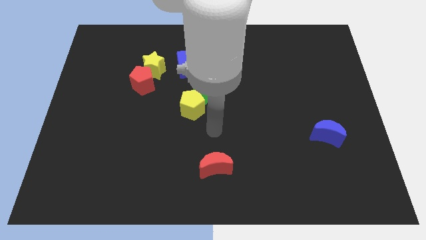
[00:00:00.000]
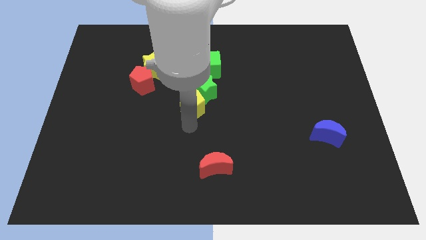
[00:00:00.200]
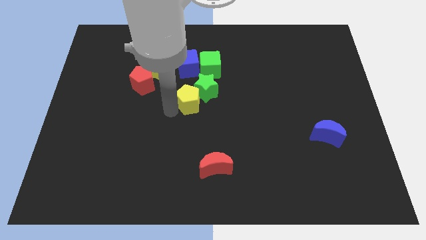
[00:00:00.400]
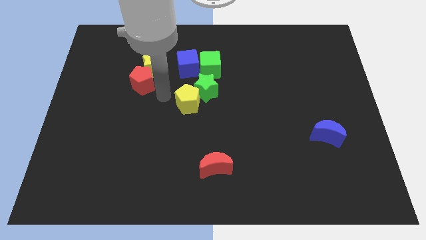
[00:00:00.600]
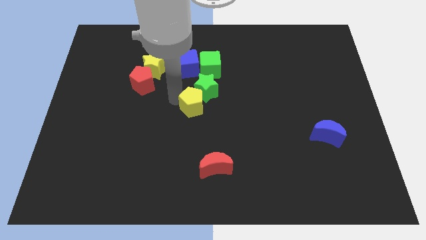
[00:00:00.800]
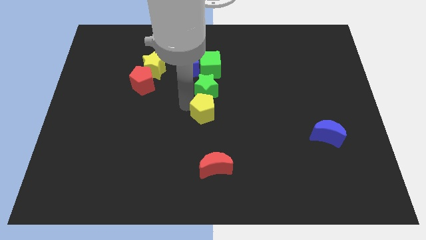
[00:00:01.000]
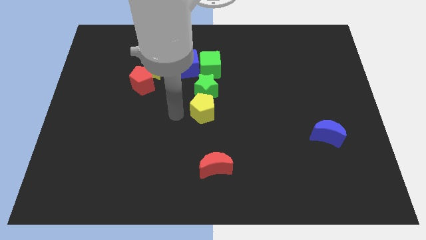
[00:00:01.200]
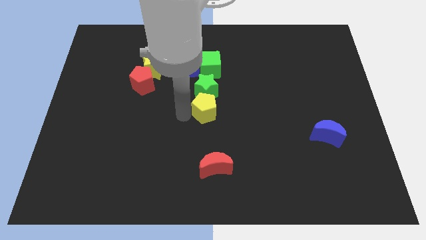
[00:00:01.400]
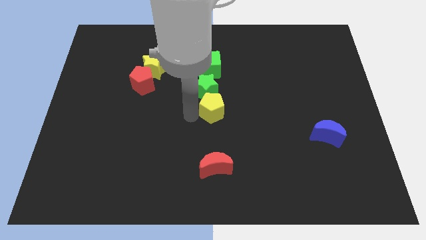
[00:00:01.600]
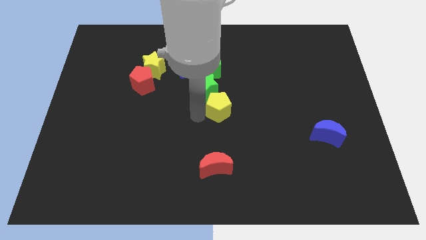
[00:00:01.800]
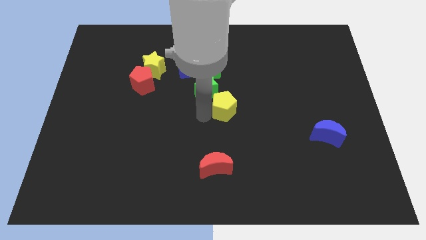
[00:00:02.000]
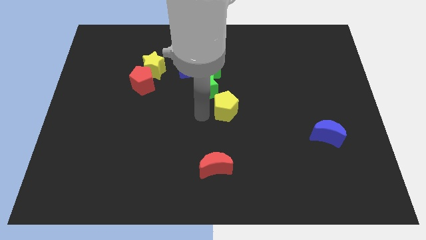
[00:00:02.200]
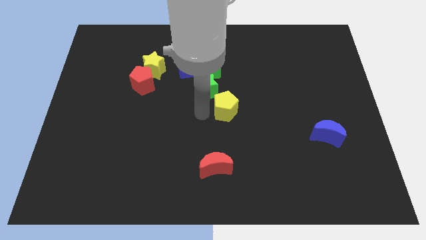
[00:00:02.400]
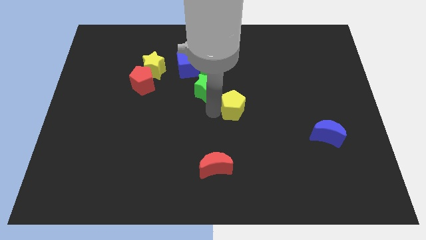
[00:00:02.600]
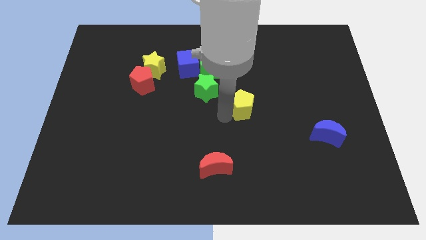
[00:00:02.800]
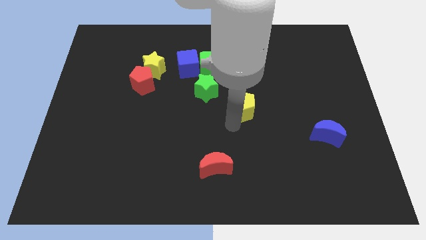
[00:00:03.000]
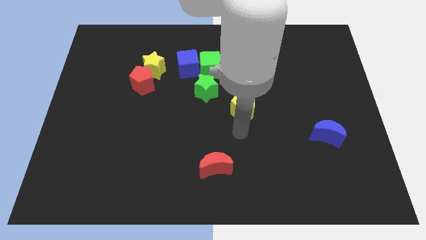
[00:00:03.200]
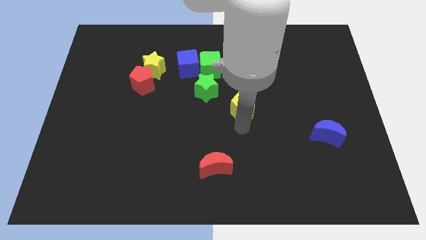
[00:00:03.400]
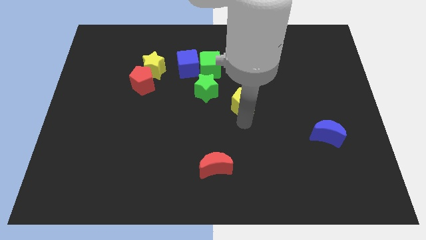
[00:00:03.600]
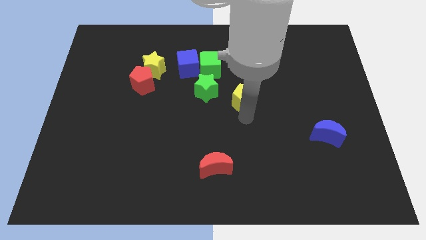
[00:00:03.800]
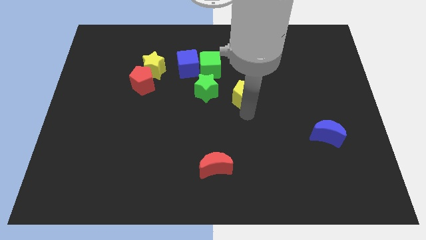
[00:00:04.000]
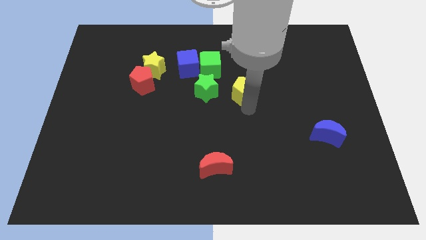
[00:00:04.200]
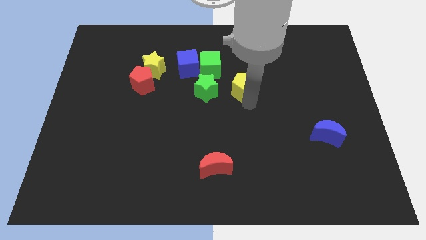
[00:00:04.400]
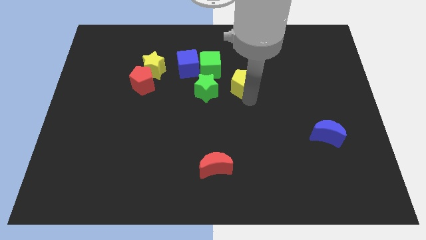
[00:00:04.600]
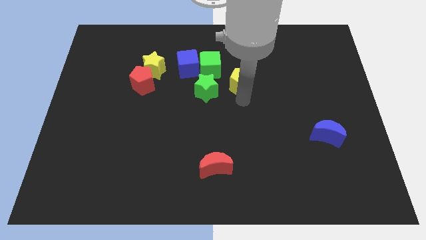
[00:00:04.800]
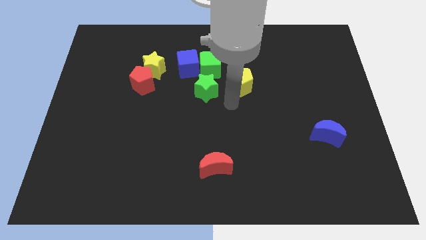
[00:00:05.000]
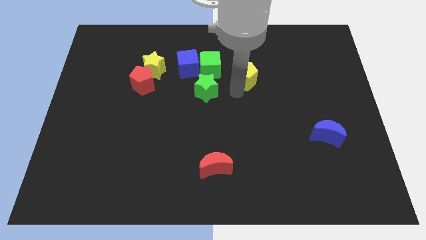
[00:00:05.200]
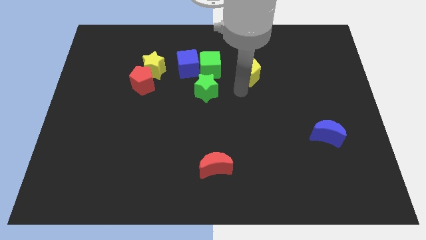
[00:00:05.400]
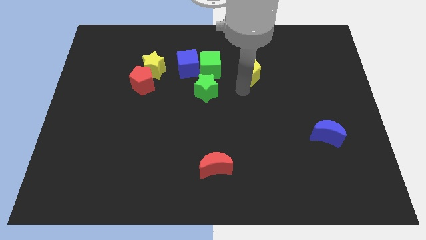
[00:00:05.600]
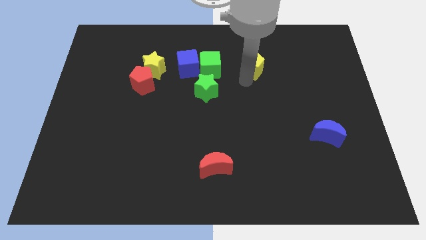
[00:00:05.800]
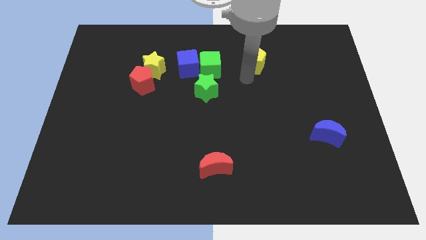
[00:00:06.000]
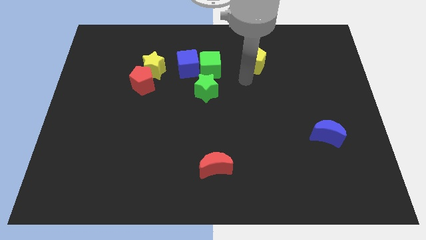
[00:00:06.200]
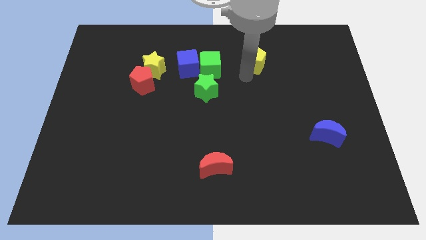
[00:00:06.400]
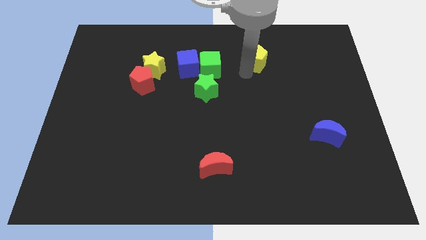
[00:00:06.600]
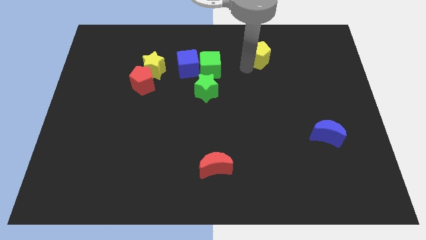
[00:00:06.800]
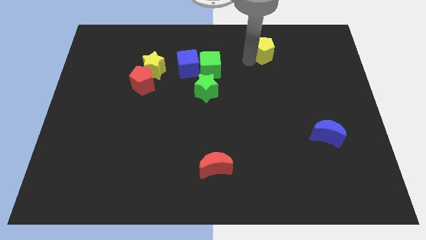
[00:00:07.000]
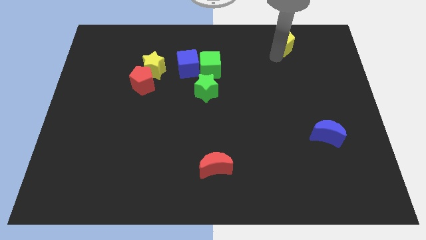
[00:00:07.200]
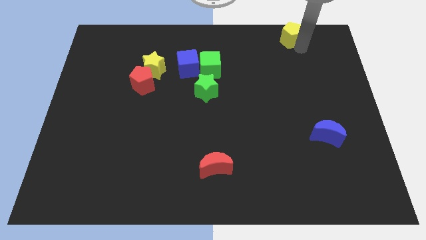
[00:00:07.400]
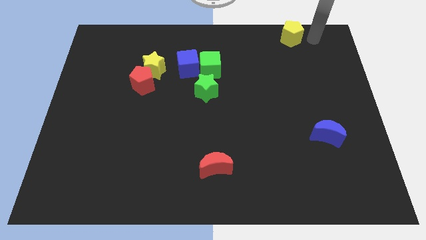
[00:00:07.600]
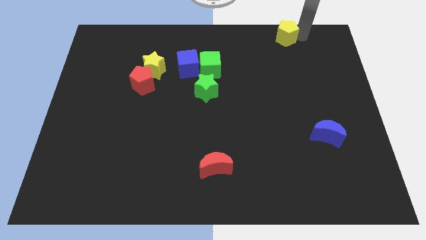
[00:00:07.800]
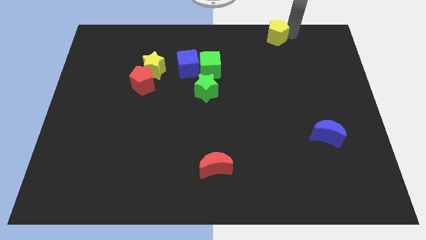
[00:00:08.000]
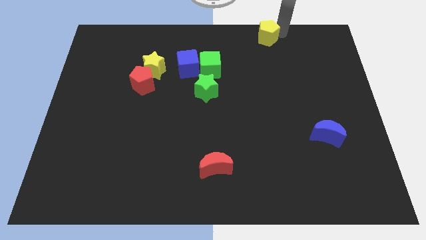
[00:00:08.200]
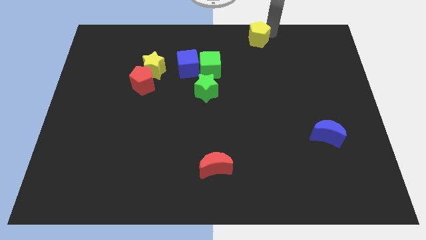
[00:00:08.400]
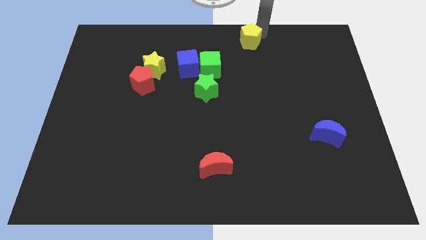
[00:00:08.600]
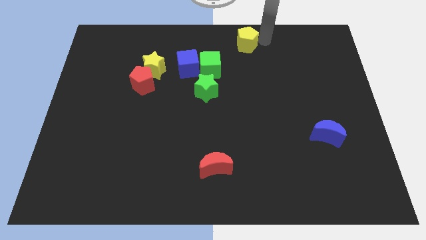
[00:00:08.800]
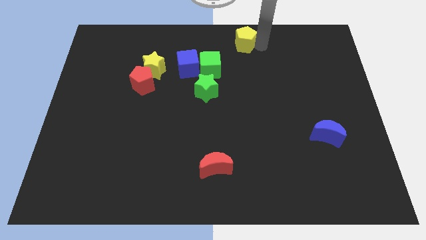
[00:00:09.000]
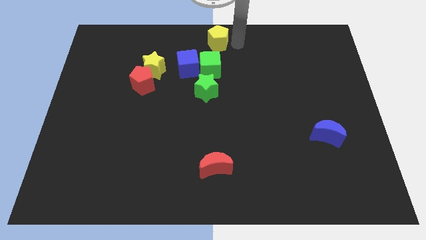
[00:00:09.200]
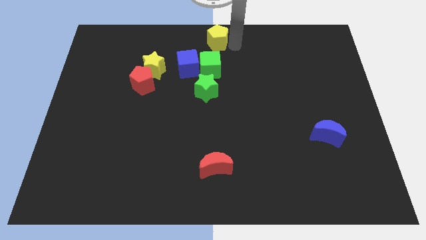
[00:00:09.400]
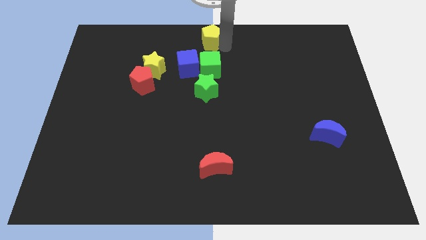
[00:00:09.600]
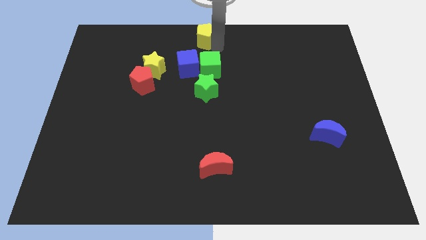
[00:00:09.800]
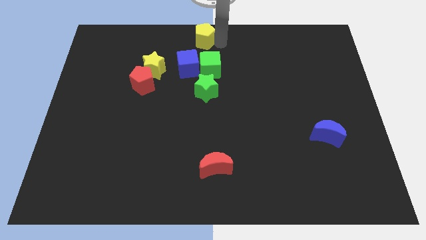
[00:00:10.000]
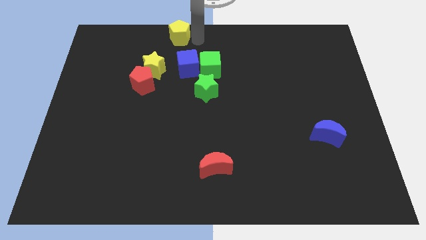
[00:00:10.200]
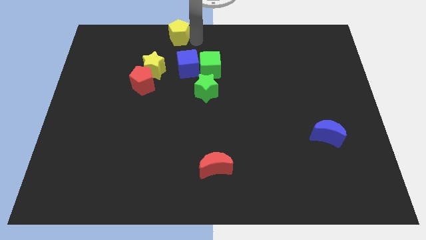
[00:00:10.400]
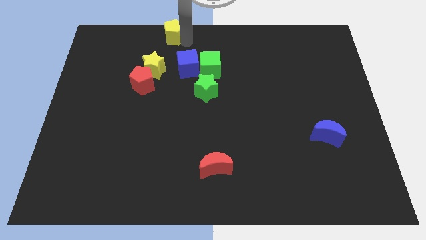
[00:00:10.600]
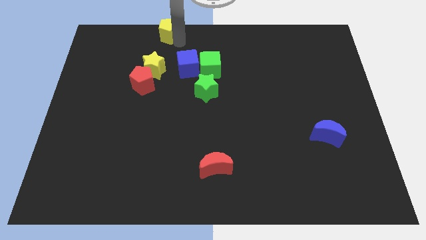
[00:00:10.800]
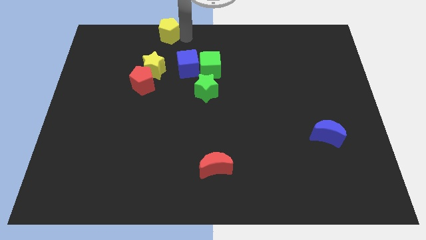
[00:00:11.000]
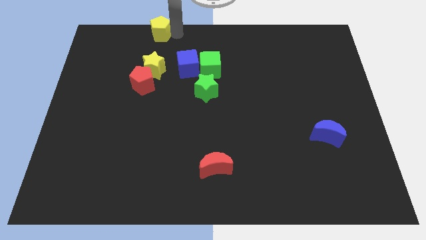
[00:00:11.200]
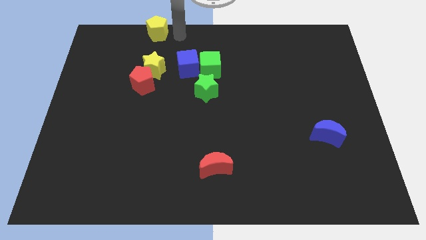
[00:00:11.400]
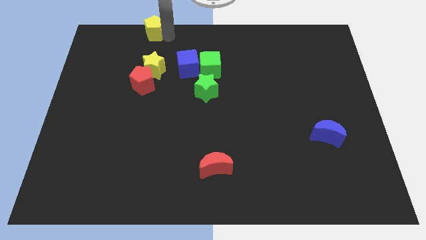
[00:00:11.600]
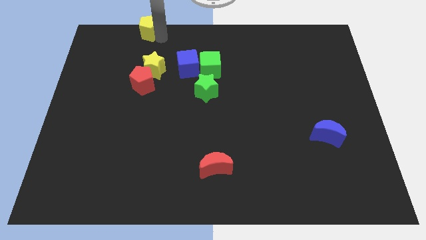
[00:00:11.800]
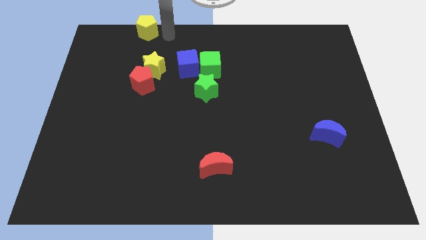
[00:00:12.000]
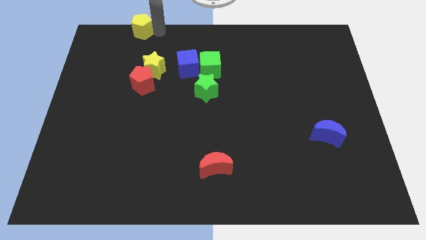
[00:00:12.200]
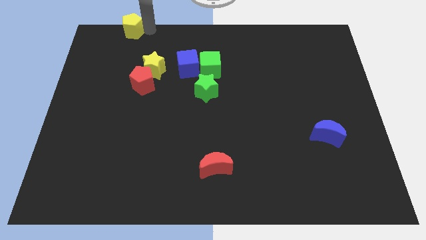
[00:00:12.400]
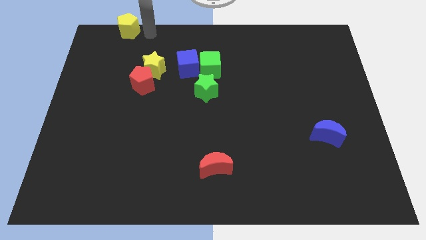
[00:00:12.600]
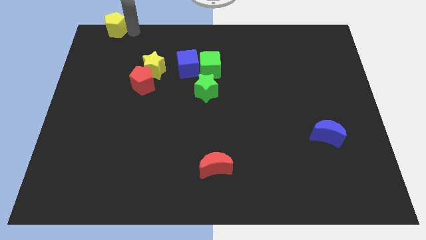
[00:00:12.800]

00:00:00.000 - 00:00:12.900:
slide the yellow pentagon to the upper left corner
